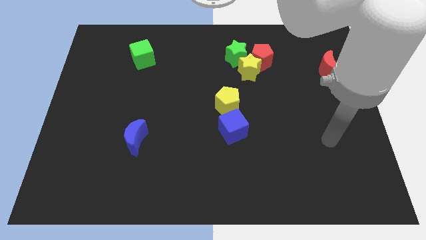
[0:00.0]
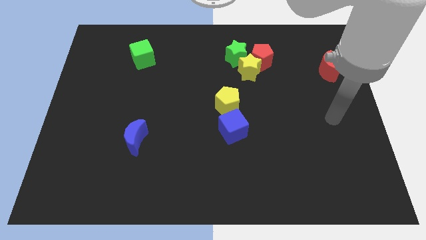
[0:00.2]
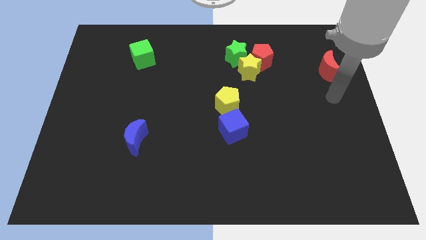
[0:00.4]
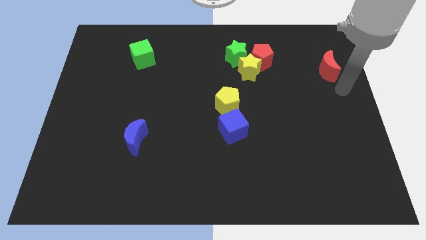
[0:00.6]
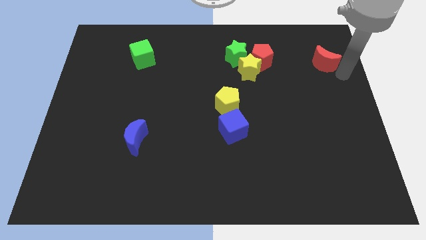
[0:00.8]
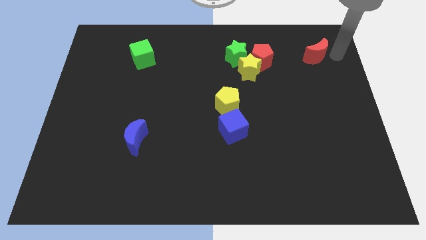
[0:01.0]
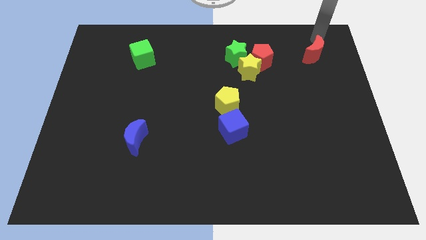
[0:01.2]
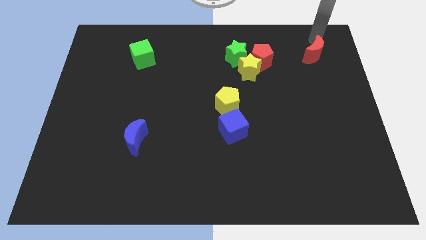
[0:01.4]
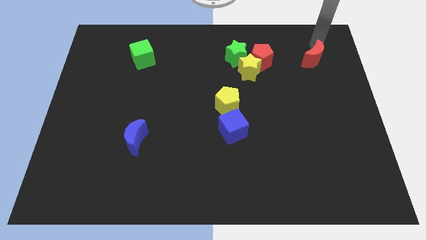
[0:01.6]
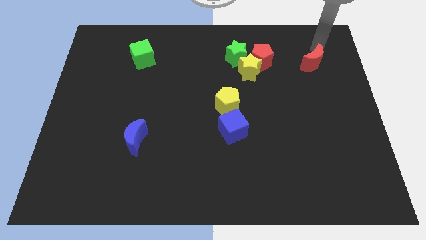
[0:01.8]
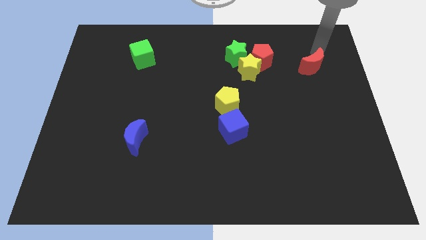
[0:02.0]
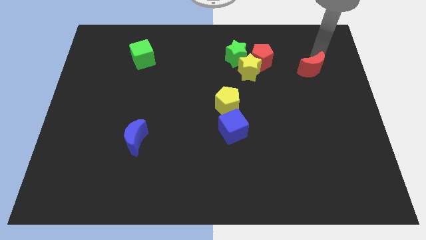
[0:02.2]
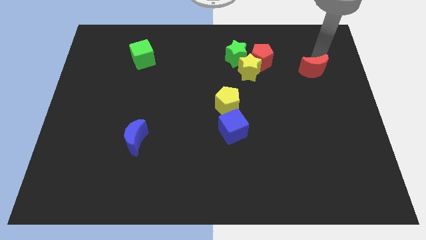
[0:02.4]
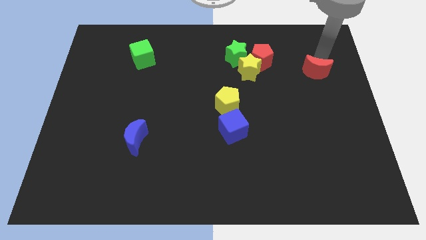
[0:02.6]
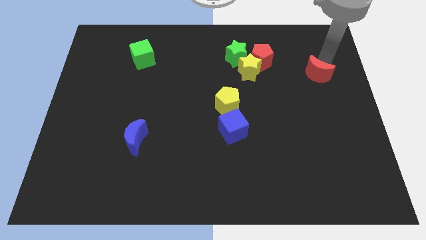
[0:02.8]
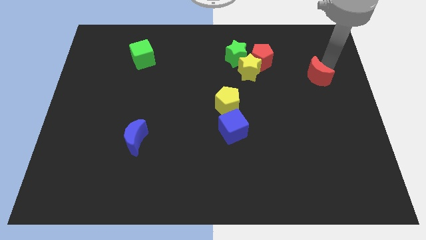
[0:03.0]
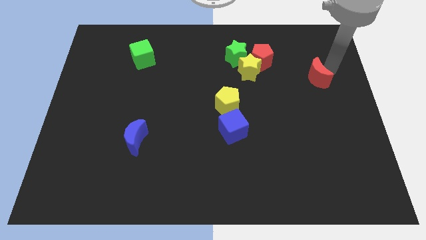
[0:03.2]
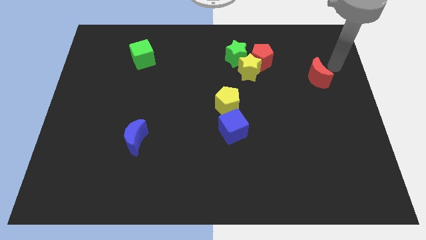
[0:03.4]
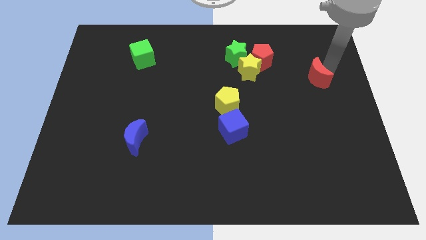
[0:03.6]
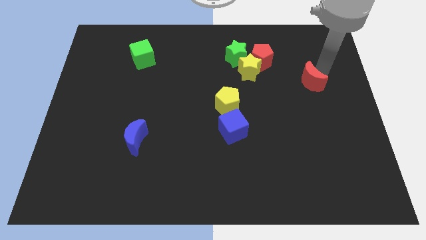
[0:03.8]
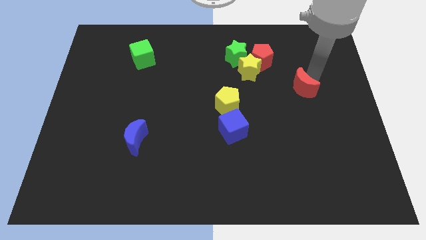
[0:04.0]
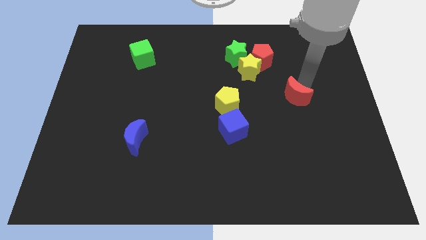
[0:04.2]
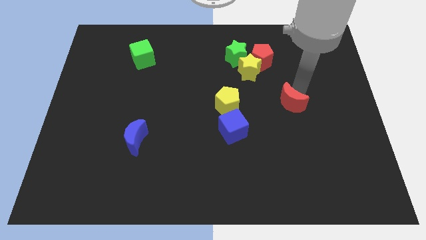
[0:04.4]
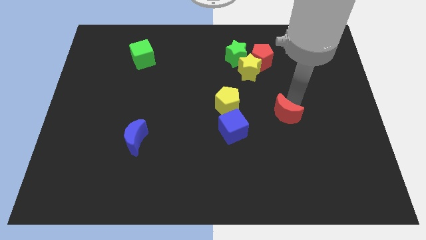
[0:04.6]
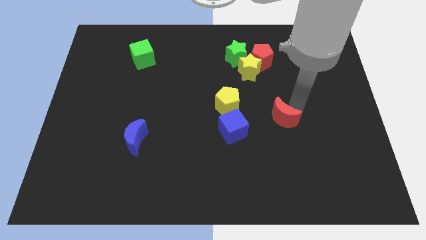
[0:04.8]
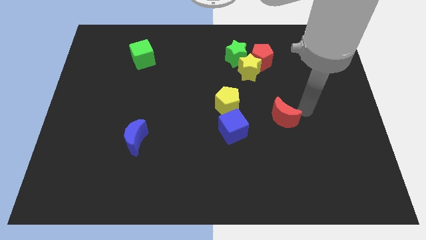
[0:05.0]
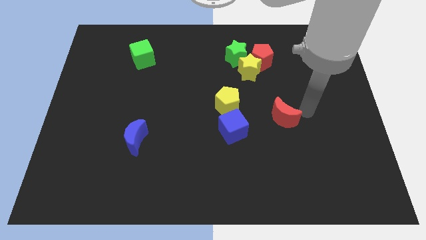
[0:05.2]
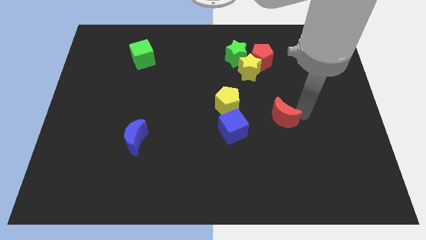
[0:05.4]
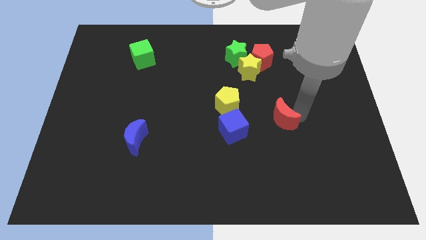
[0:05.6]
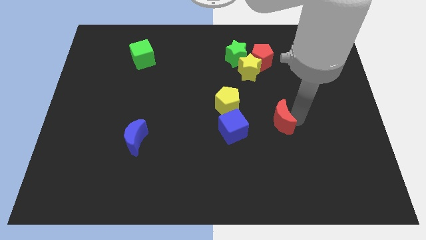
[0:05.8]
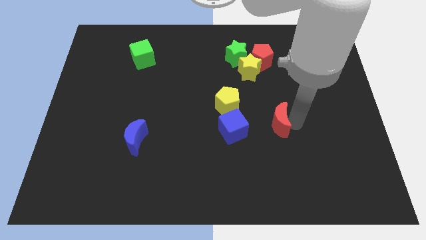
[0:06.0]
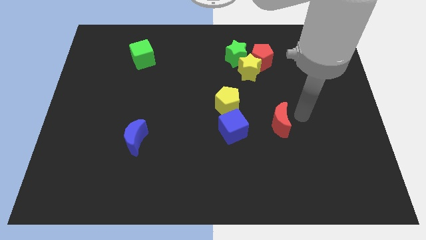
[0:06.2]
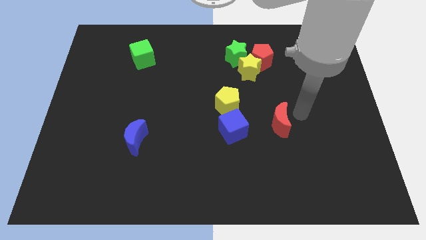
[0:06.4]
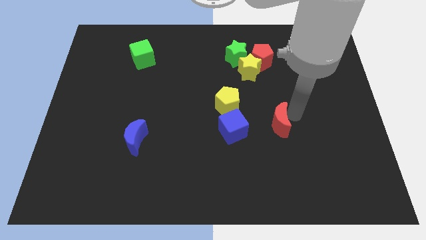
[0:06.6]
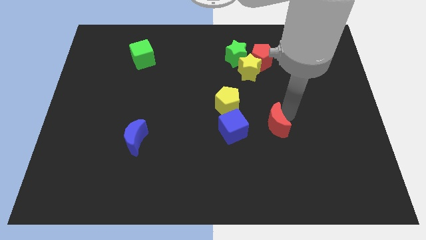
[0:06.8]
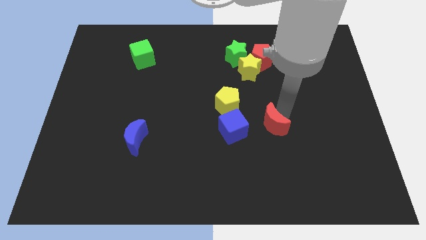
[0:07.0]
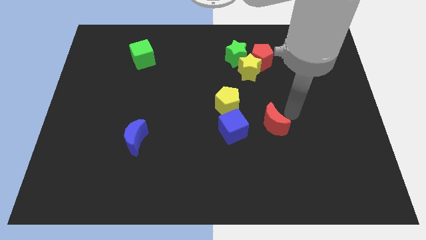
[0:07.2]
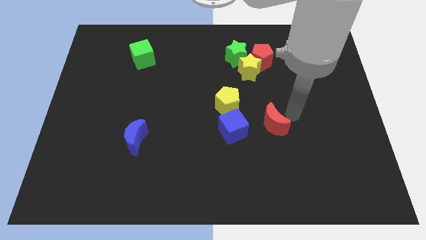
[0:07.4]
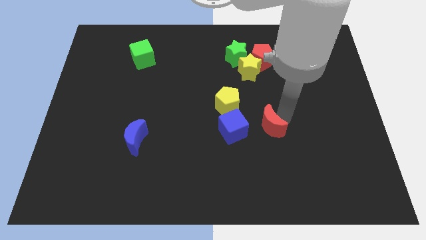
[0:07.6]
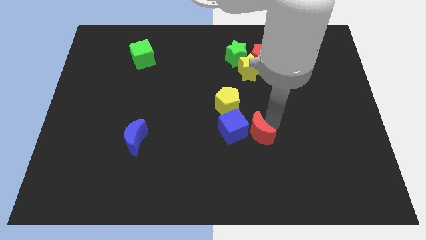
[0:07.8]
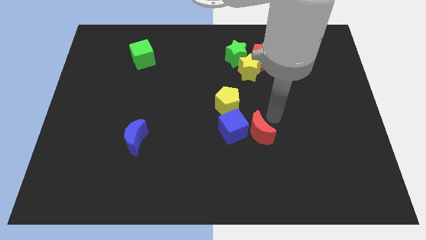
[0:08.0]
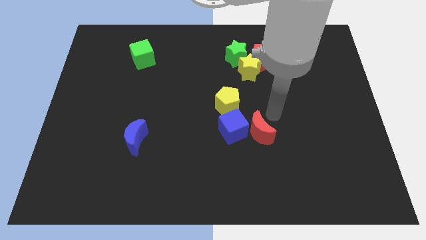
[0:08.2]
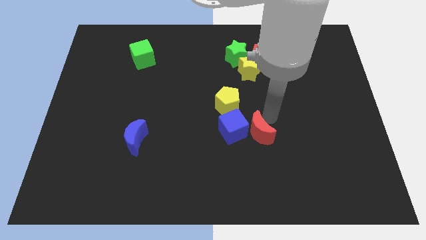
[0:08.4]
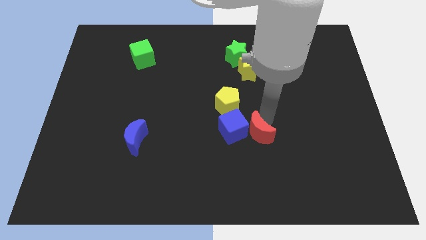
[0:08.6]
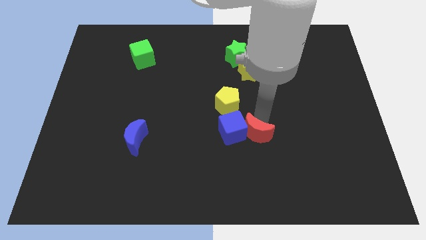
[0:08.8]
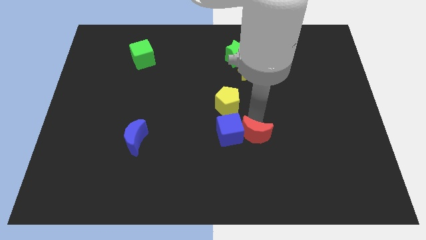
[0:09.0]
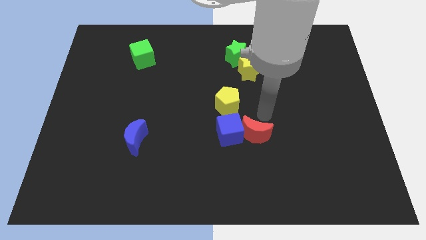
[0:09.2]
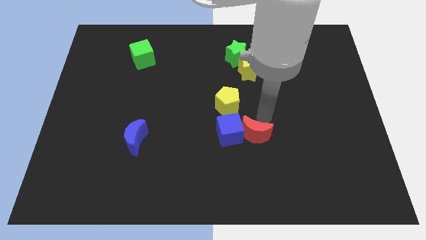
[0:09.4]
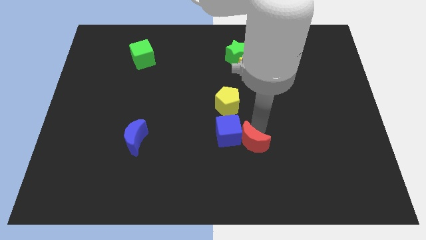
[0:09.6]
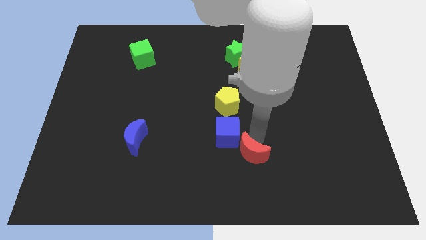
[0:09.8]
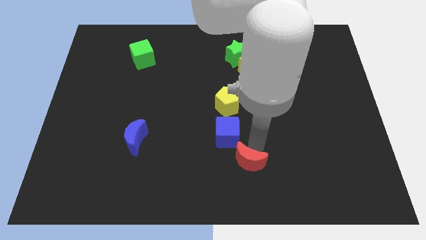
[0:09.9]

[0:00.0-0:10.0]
put the red moon to the bottom of the blue cube

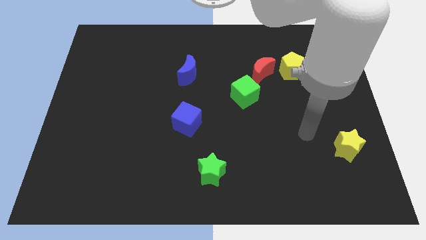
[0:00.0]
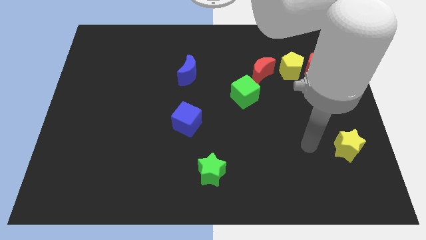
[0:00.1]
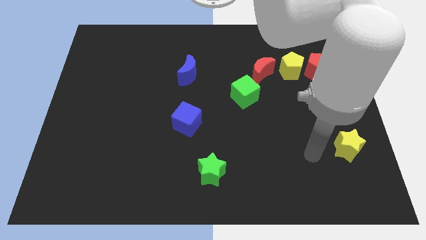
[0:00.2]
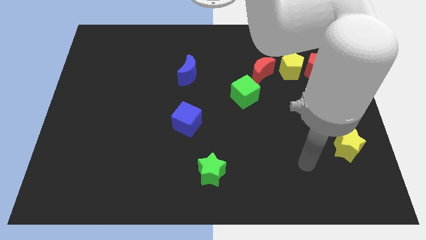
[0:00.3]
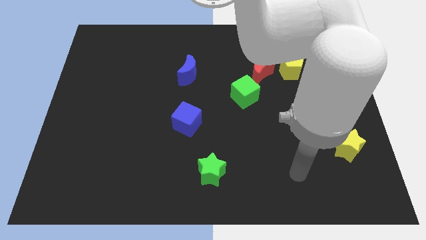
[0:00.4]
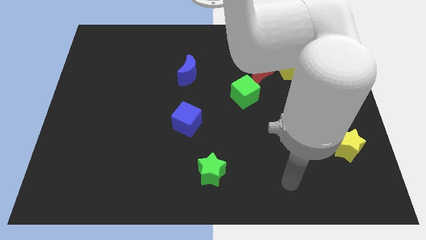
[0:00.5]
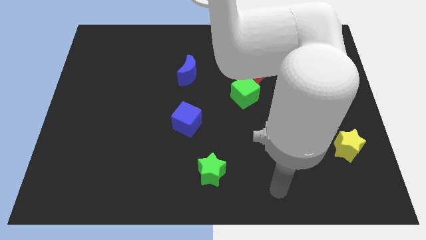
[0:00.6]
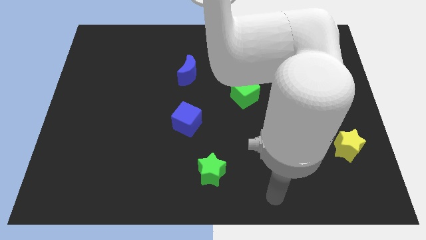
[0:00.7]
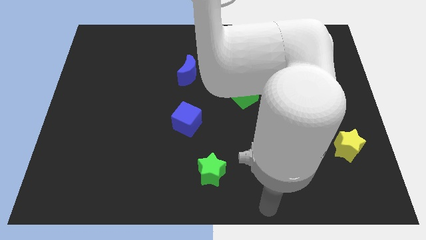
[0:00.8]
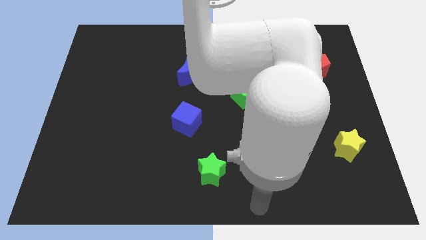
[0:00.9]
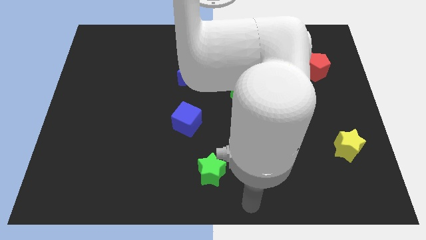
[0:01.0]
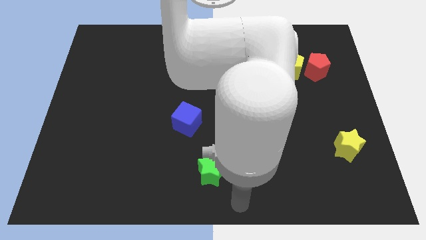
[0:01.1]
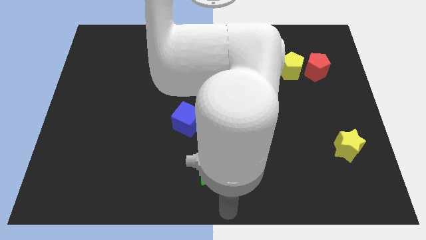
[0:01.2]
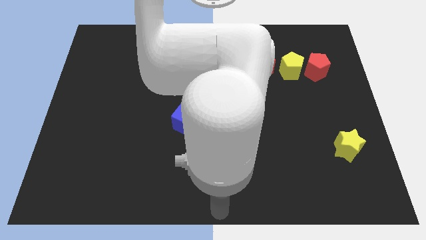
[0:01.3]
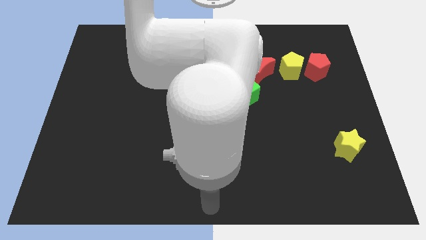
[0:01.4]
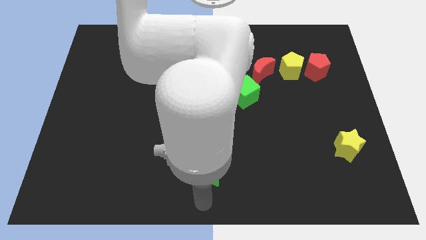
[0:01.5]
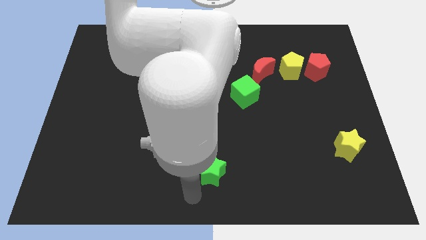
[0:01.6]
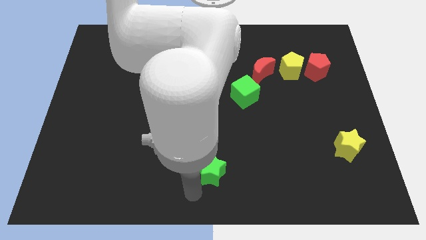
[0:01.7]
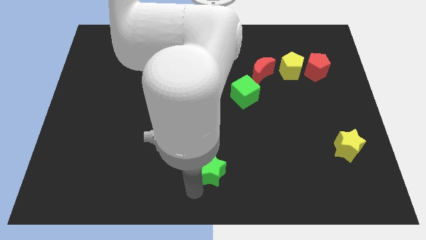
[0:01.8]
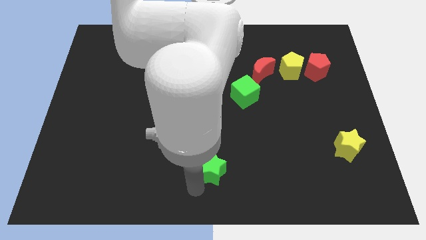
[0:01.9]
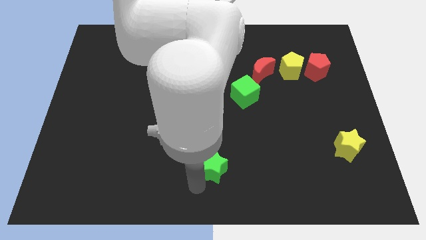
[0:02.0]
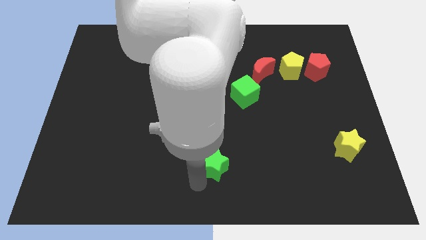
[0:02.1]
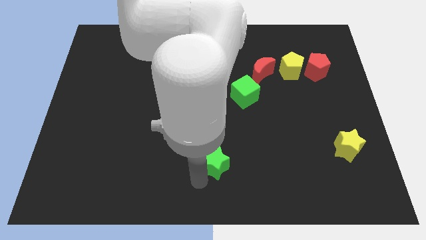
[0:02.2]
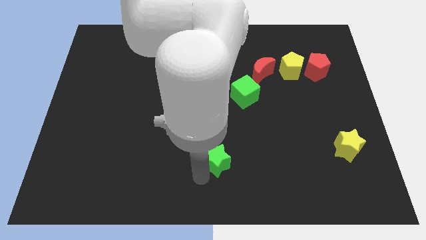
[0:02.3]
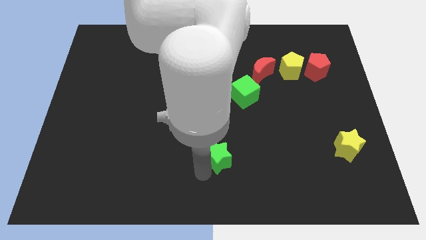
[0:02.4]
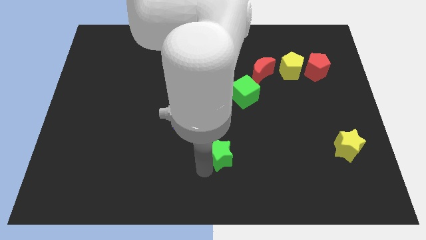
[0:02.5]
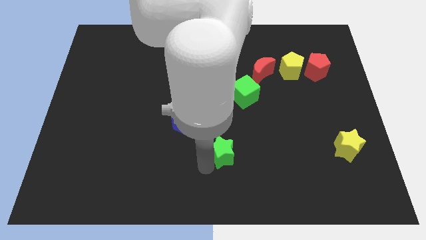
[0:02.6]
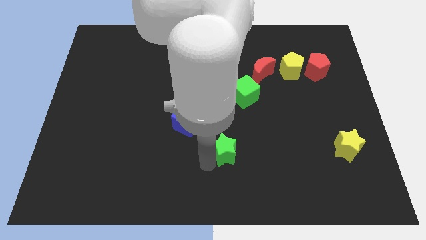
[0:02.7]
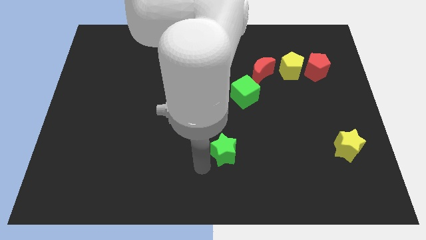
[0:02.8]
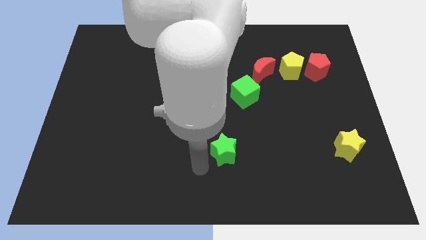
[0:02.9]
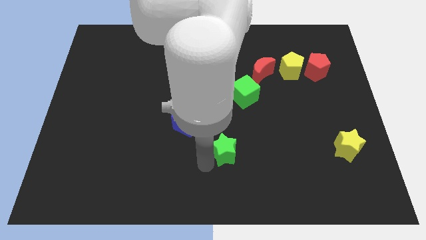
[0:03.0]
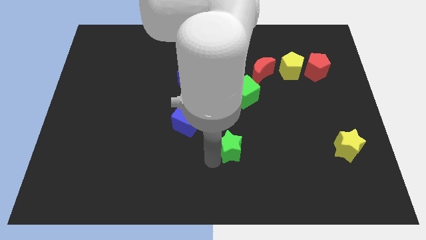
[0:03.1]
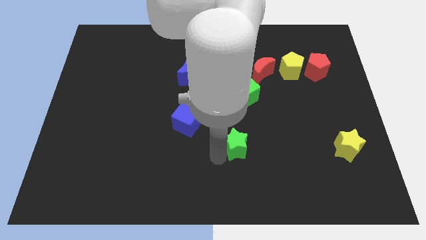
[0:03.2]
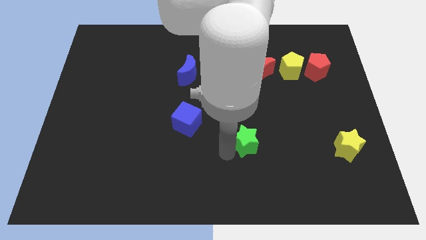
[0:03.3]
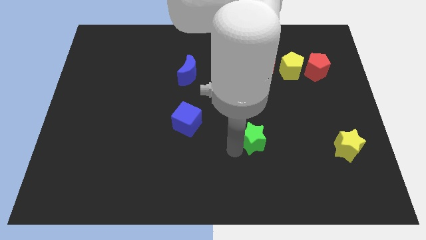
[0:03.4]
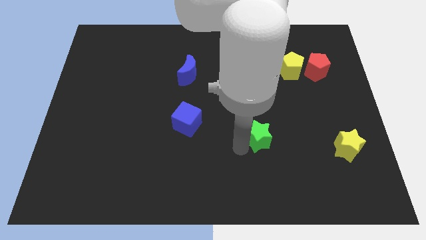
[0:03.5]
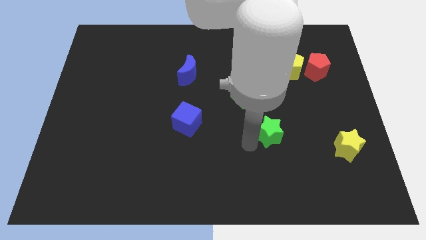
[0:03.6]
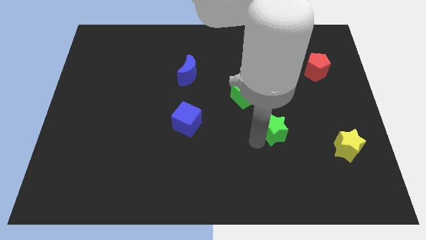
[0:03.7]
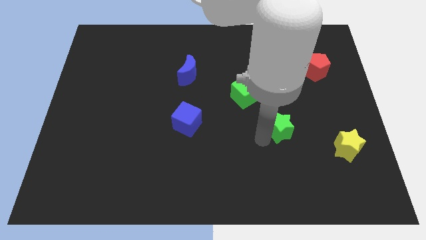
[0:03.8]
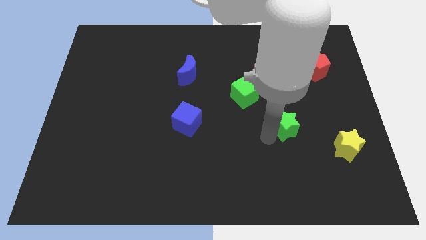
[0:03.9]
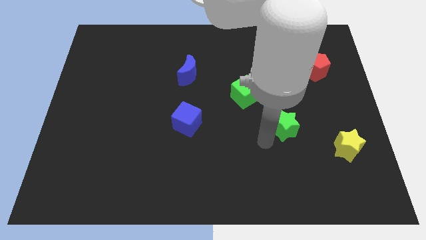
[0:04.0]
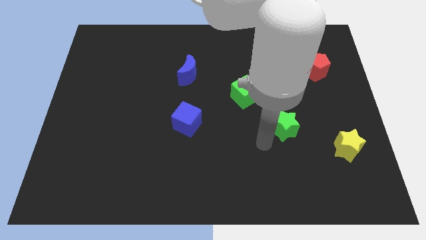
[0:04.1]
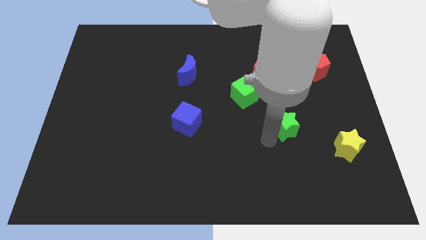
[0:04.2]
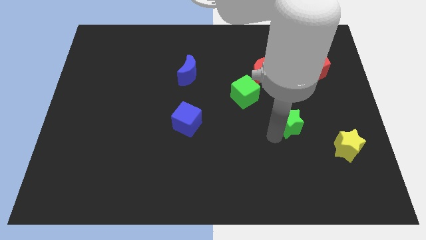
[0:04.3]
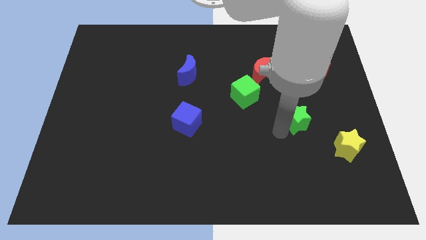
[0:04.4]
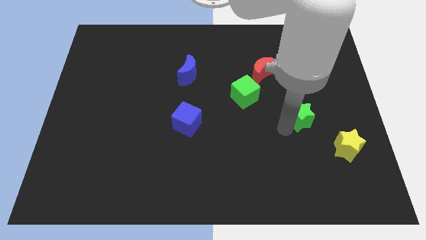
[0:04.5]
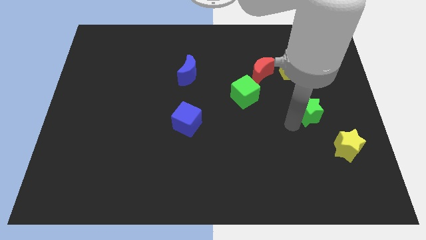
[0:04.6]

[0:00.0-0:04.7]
put the green star to the bottom side of the red pentagon
